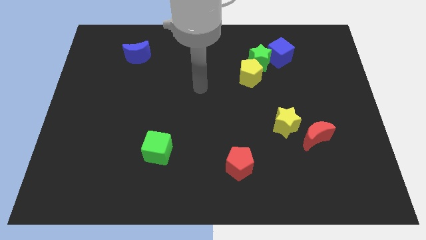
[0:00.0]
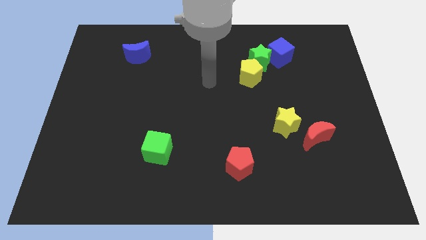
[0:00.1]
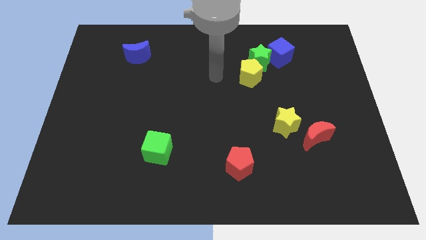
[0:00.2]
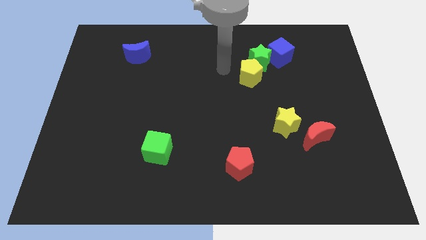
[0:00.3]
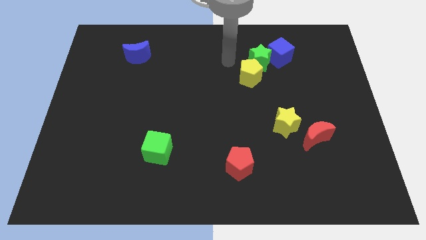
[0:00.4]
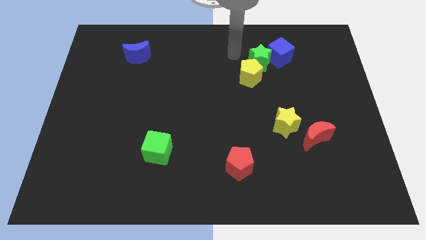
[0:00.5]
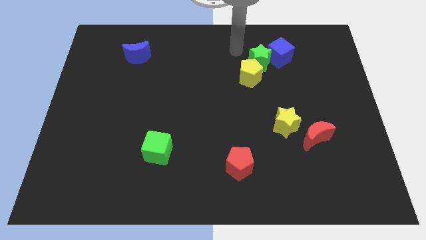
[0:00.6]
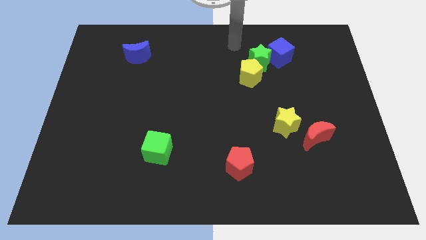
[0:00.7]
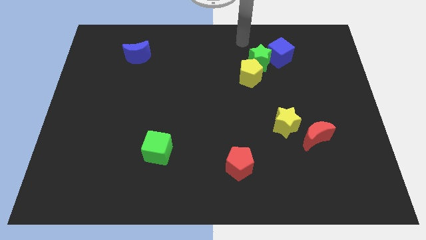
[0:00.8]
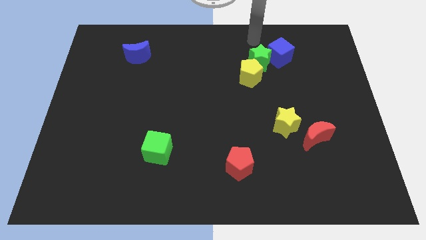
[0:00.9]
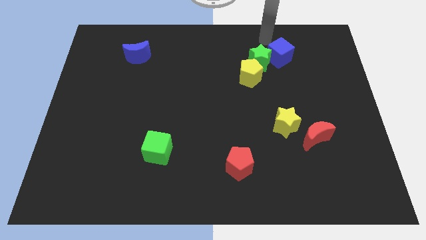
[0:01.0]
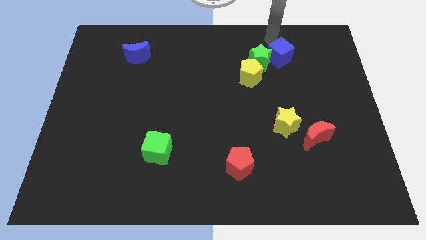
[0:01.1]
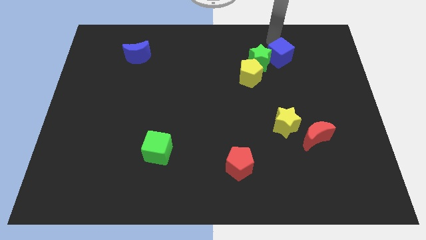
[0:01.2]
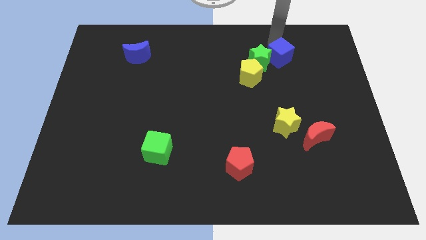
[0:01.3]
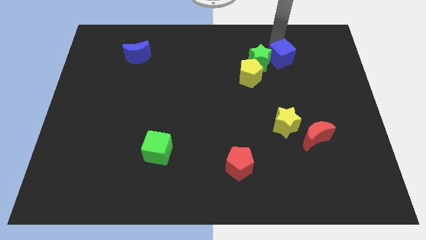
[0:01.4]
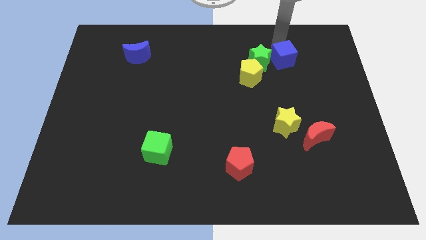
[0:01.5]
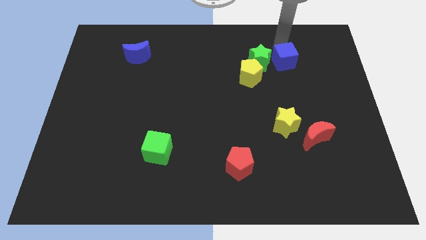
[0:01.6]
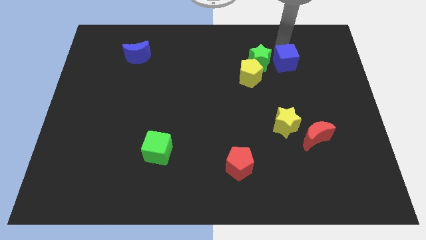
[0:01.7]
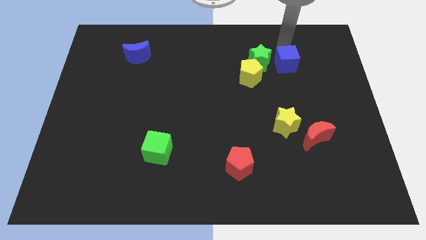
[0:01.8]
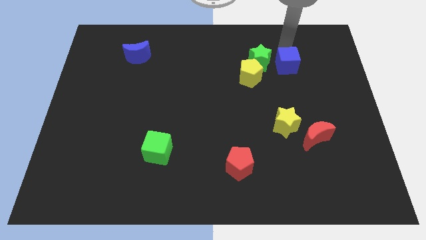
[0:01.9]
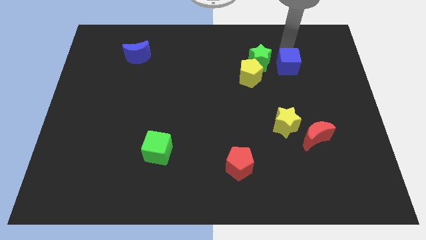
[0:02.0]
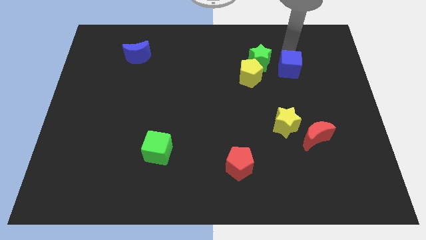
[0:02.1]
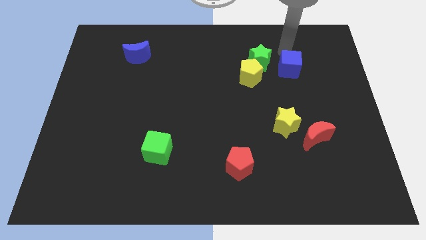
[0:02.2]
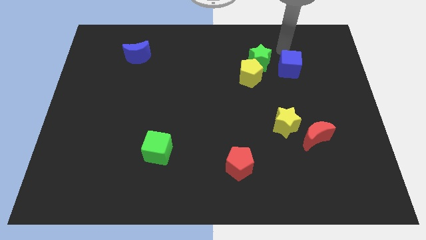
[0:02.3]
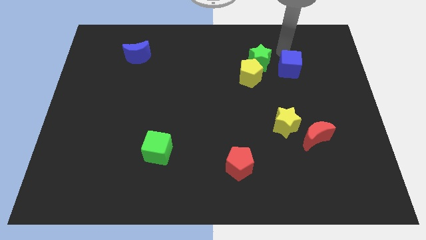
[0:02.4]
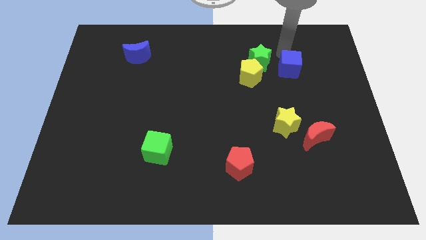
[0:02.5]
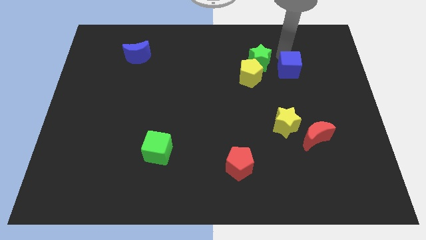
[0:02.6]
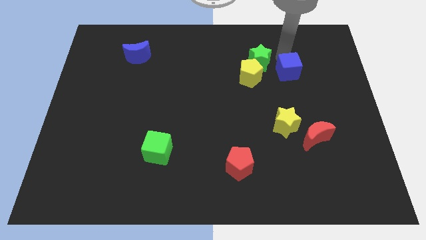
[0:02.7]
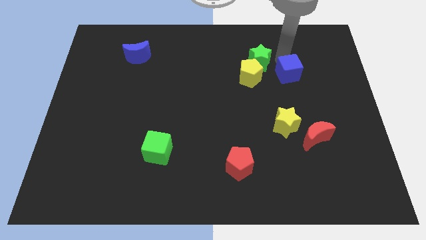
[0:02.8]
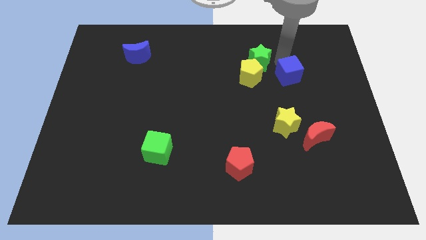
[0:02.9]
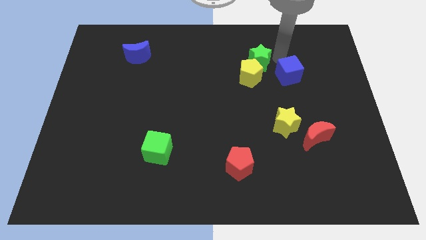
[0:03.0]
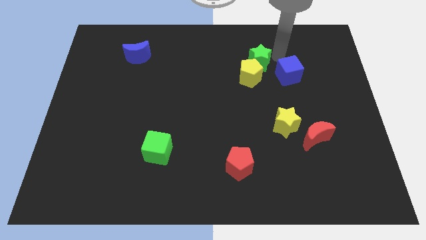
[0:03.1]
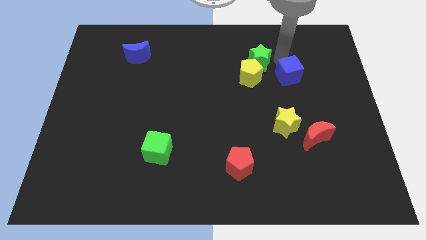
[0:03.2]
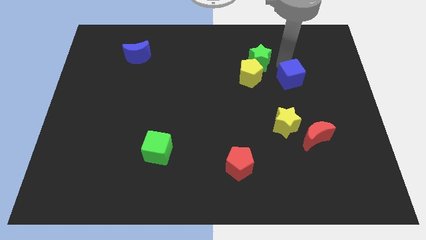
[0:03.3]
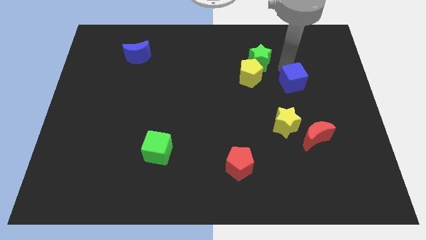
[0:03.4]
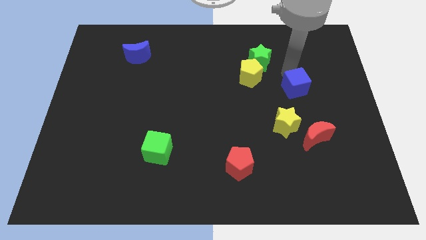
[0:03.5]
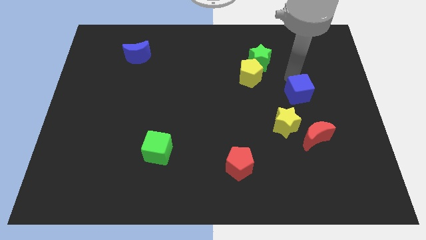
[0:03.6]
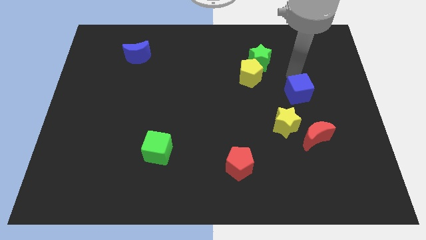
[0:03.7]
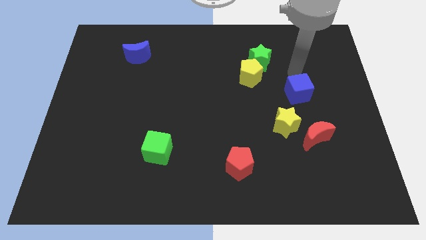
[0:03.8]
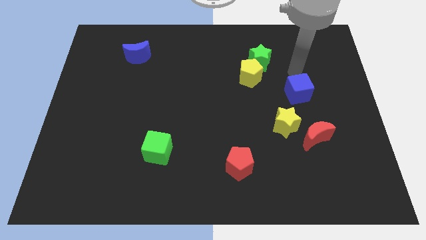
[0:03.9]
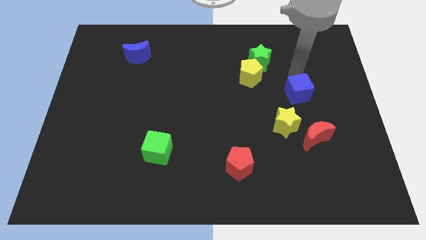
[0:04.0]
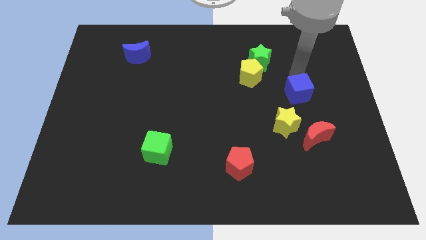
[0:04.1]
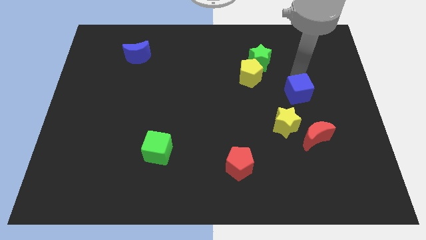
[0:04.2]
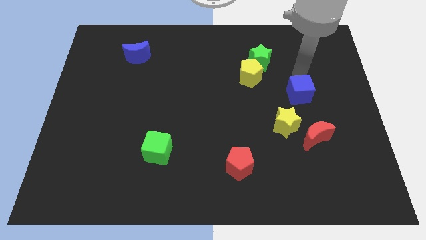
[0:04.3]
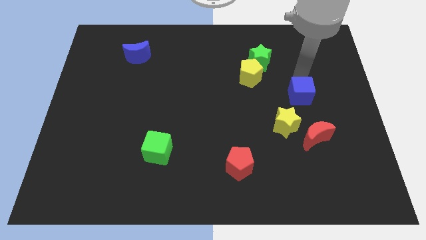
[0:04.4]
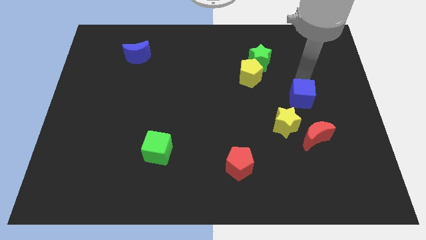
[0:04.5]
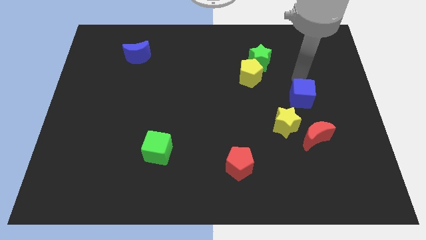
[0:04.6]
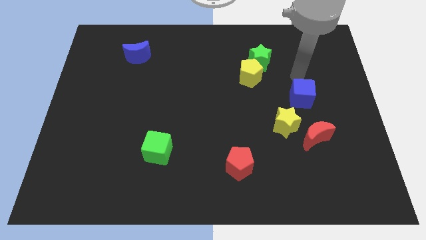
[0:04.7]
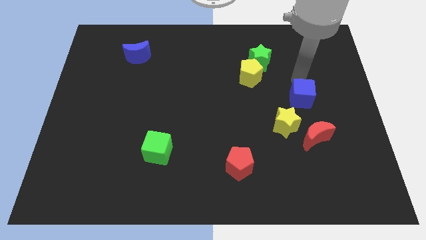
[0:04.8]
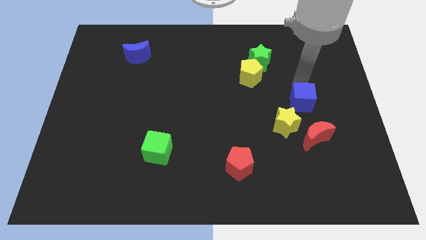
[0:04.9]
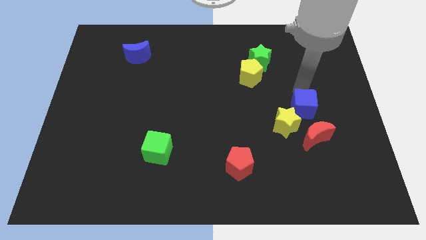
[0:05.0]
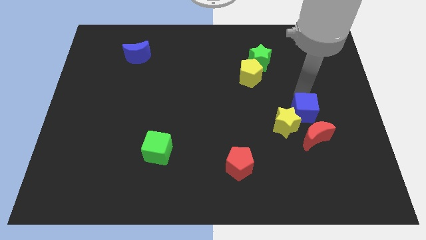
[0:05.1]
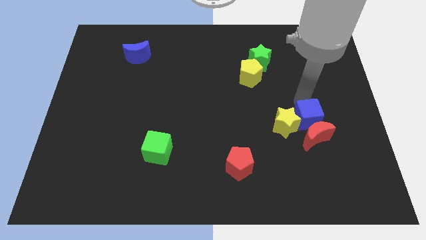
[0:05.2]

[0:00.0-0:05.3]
put the blue cube next to the red moon

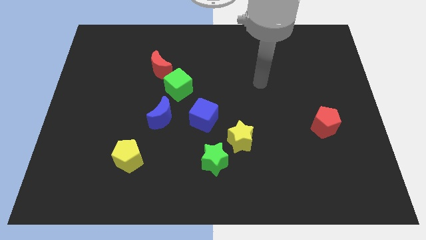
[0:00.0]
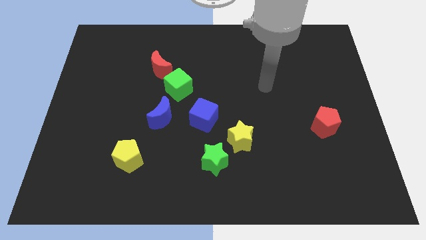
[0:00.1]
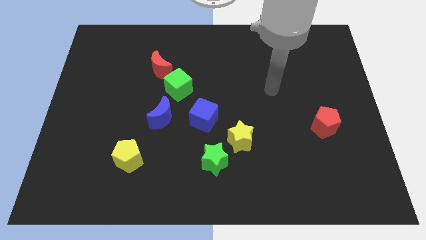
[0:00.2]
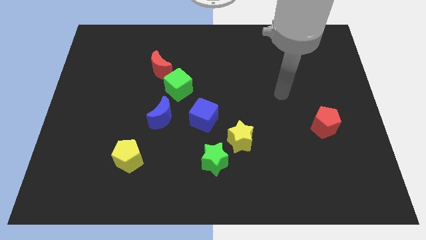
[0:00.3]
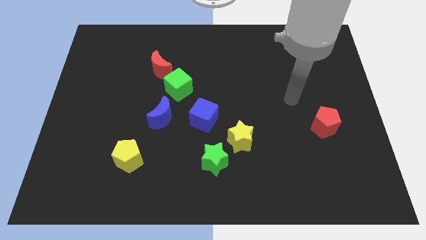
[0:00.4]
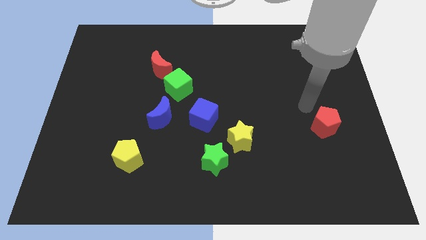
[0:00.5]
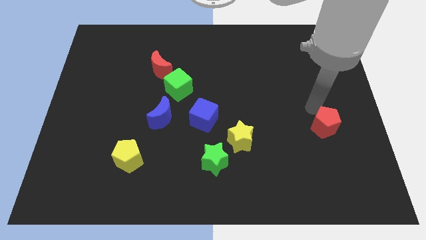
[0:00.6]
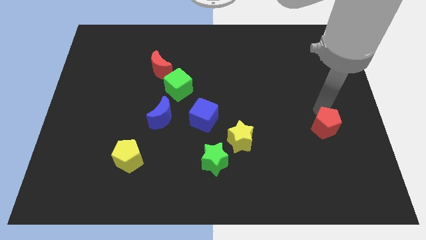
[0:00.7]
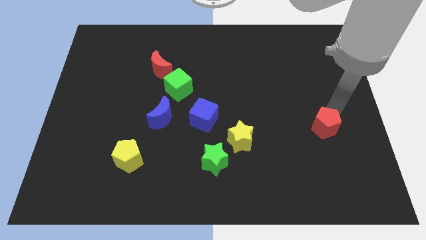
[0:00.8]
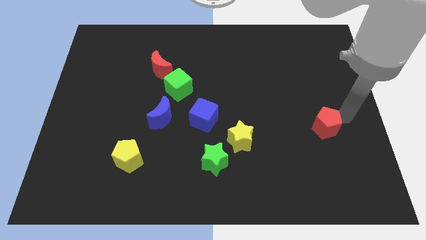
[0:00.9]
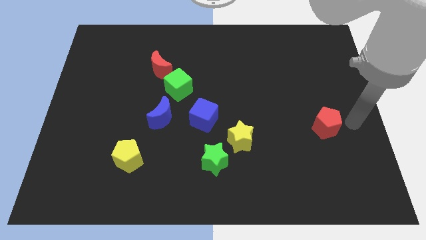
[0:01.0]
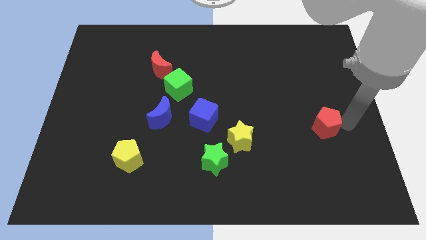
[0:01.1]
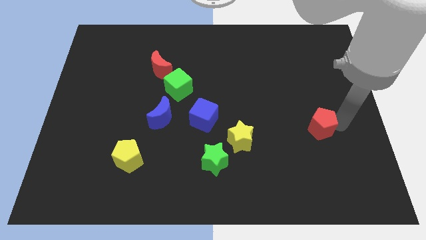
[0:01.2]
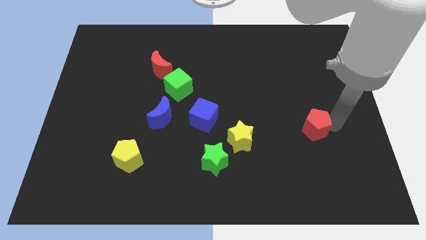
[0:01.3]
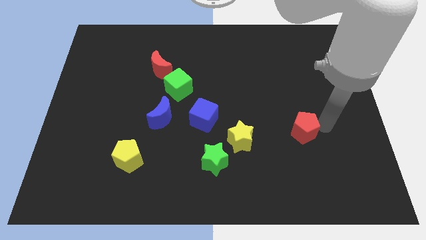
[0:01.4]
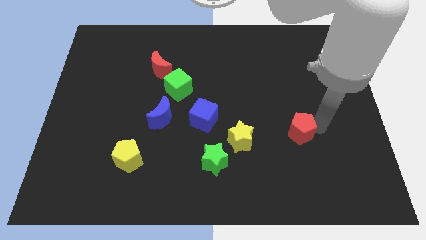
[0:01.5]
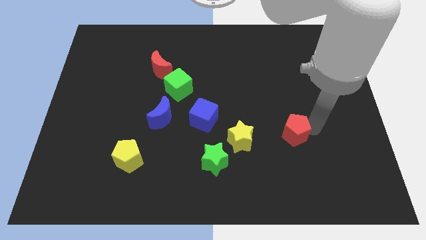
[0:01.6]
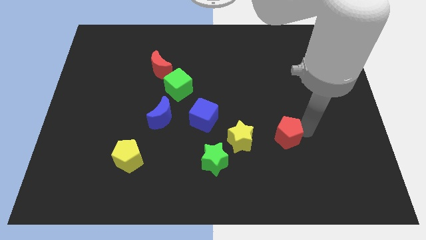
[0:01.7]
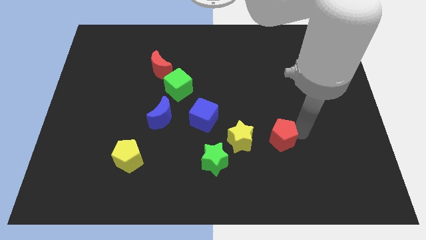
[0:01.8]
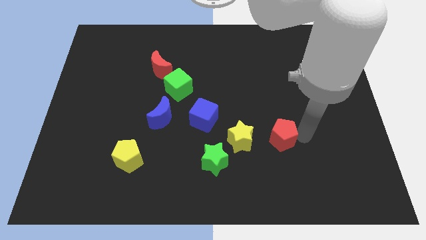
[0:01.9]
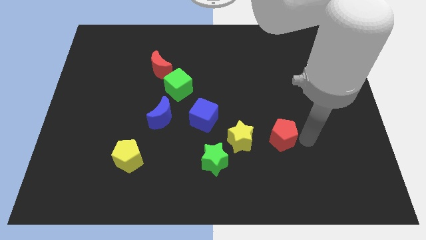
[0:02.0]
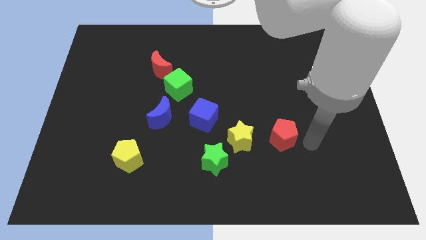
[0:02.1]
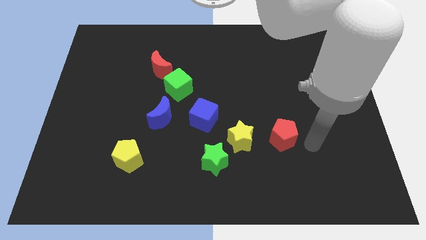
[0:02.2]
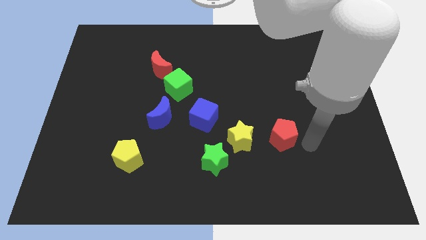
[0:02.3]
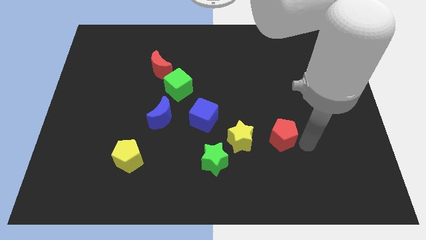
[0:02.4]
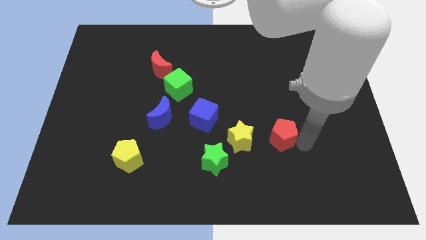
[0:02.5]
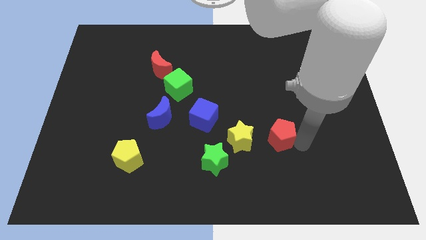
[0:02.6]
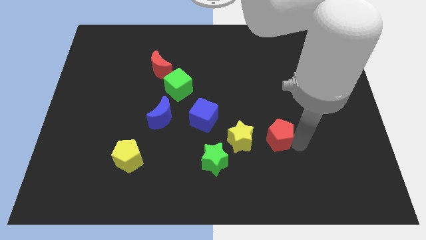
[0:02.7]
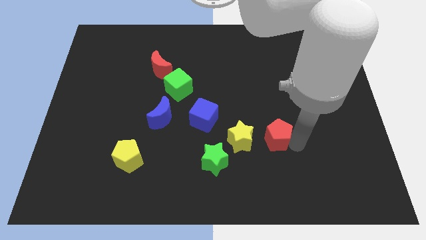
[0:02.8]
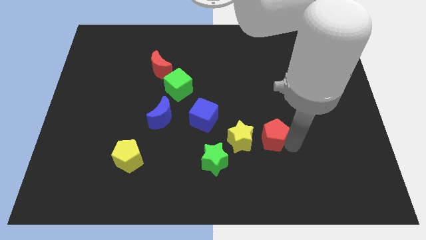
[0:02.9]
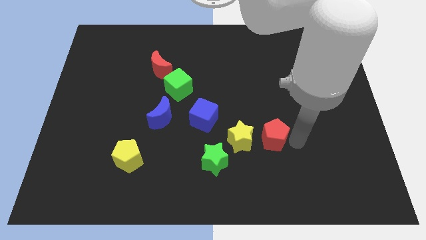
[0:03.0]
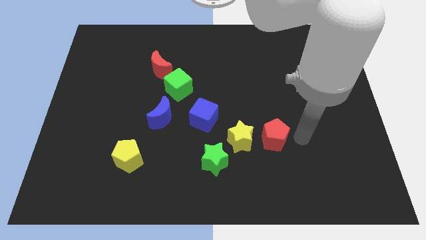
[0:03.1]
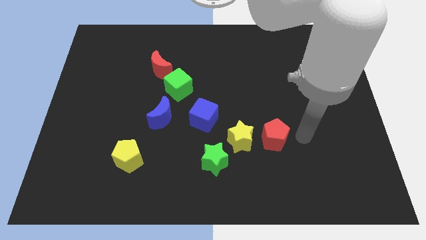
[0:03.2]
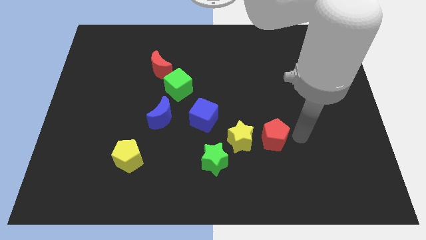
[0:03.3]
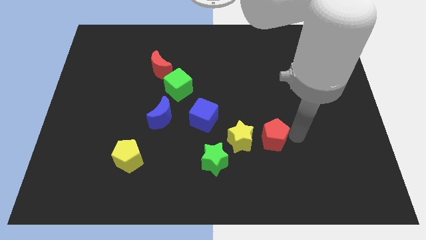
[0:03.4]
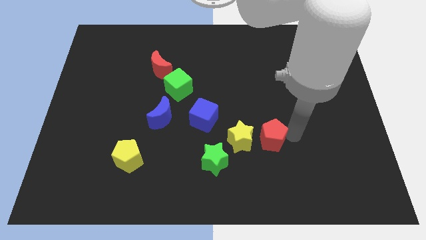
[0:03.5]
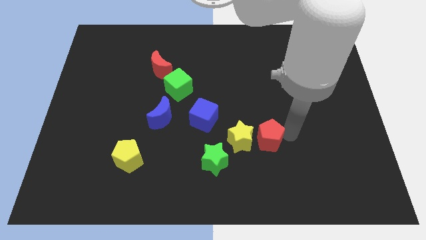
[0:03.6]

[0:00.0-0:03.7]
push the red pentagon close to the yellow star
